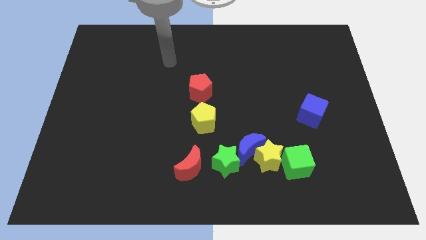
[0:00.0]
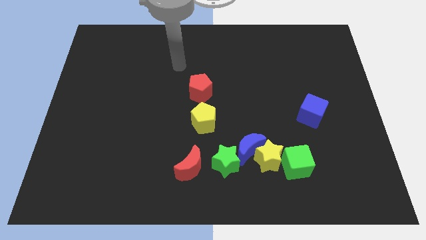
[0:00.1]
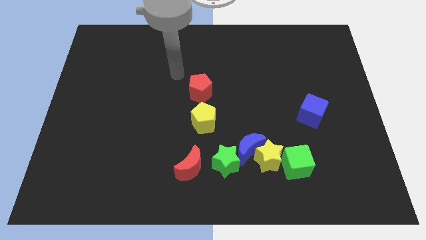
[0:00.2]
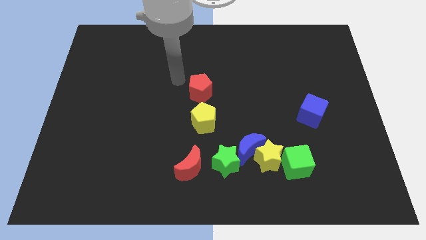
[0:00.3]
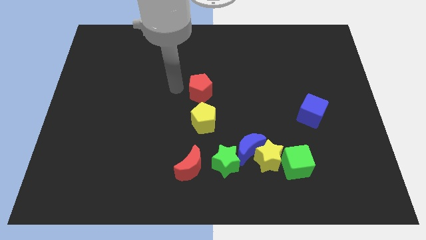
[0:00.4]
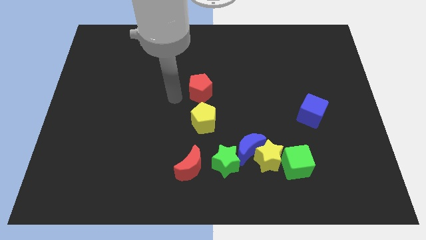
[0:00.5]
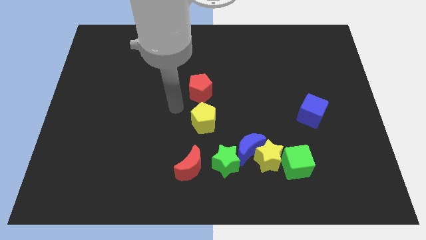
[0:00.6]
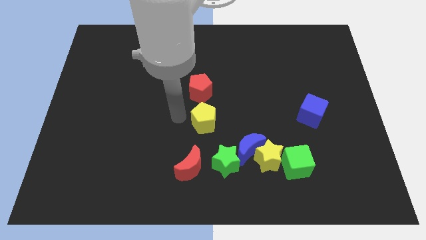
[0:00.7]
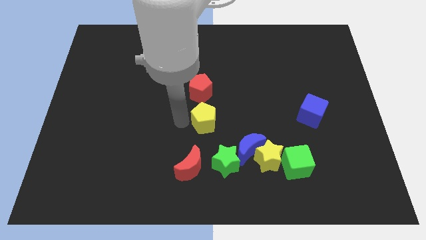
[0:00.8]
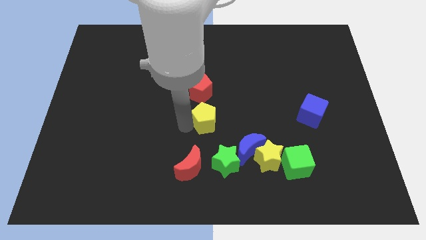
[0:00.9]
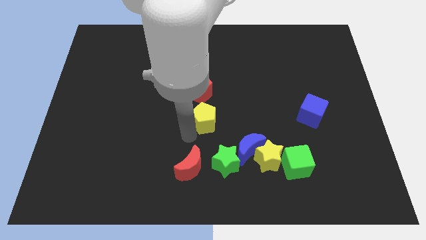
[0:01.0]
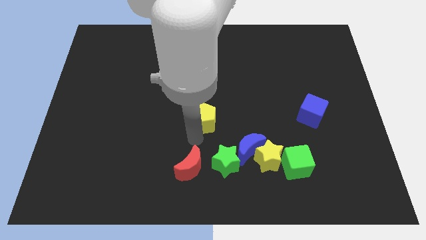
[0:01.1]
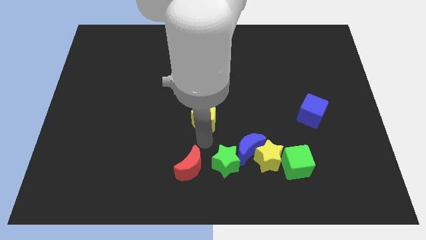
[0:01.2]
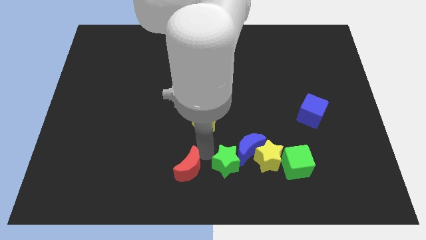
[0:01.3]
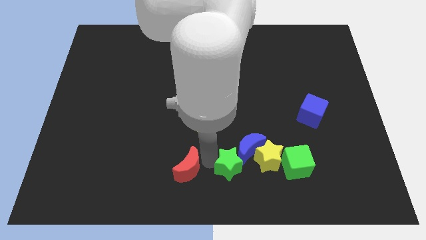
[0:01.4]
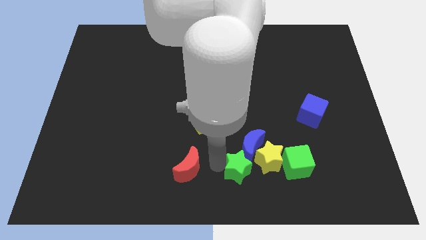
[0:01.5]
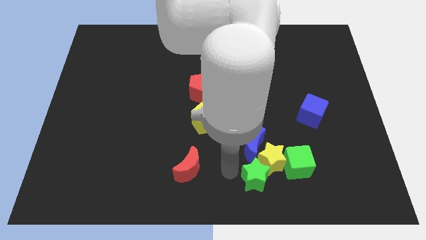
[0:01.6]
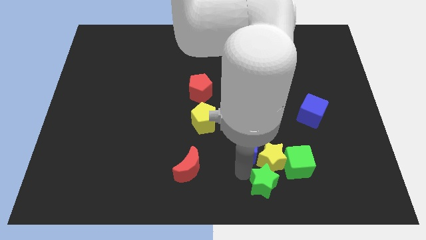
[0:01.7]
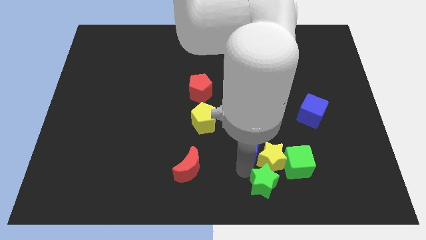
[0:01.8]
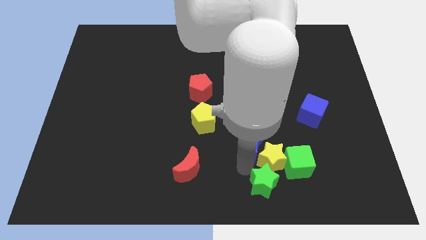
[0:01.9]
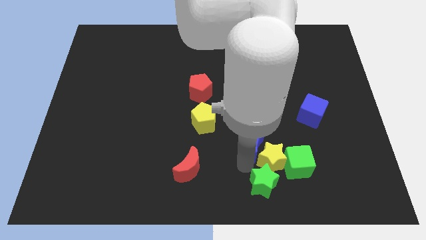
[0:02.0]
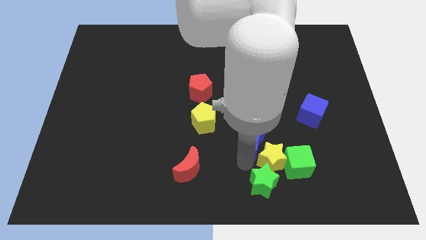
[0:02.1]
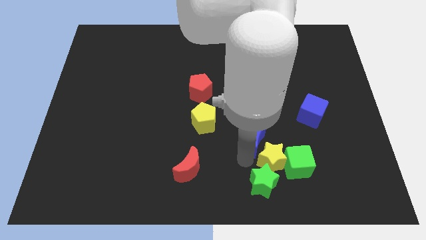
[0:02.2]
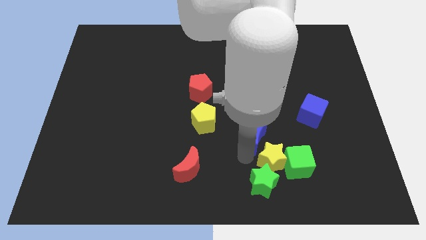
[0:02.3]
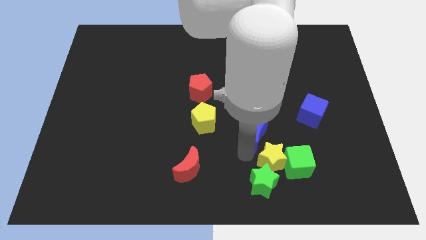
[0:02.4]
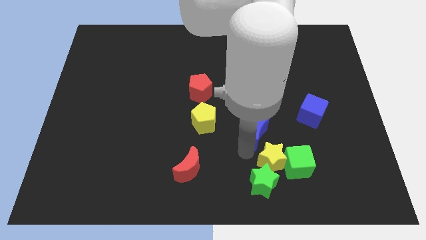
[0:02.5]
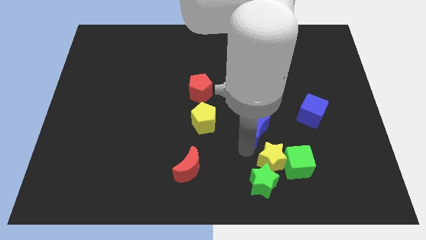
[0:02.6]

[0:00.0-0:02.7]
pull the blue moon apart from the yellow star and green star

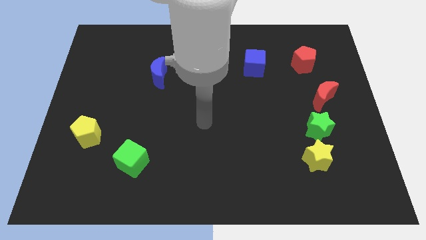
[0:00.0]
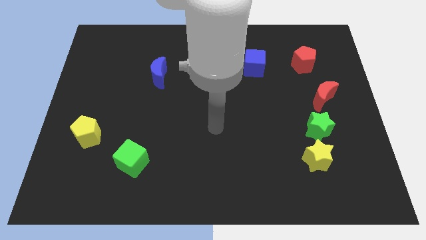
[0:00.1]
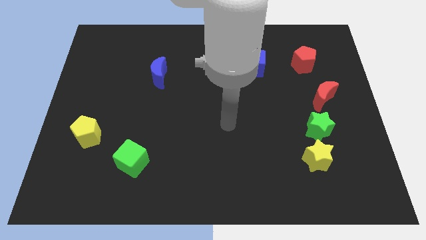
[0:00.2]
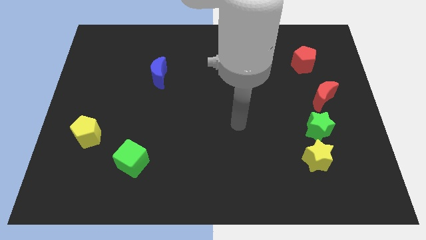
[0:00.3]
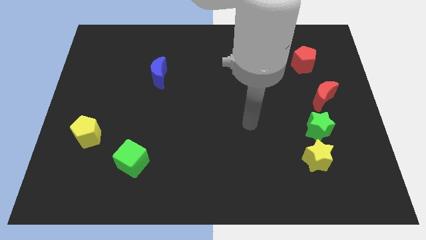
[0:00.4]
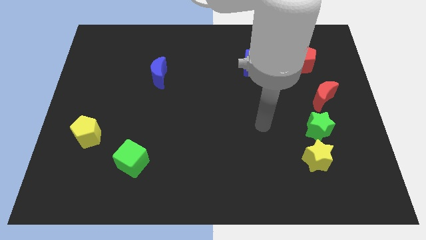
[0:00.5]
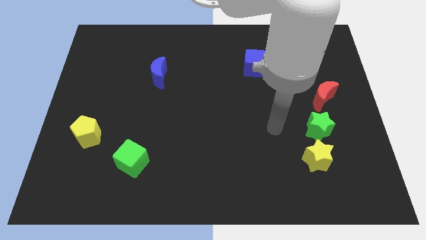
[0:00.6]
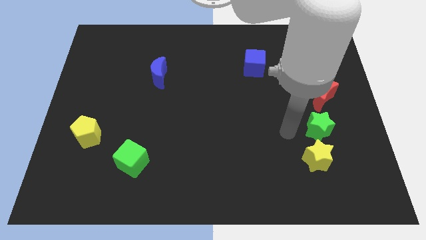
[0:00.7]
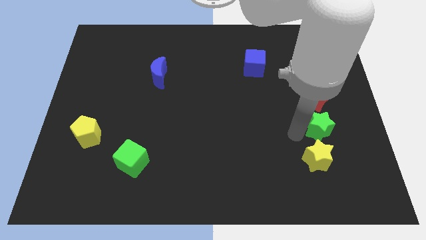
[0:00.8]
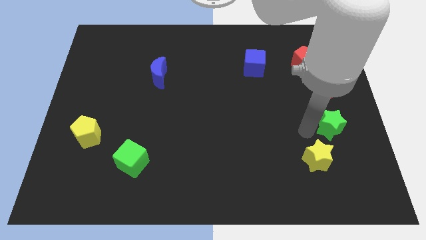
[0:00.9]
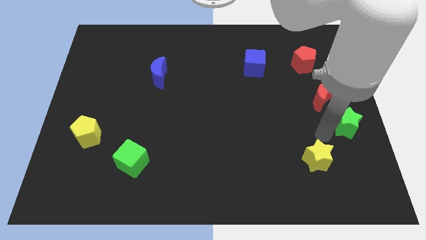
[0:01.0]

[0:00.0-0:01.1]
pull the yellow star apart from the green star

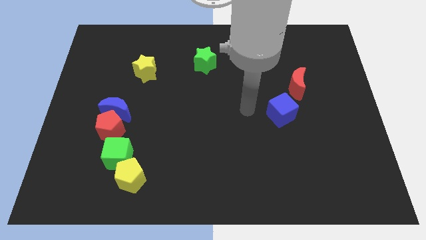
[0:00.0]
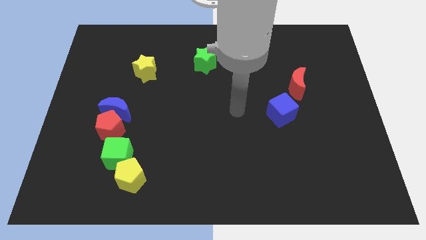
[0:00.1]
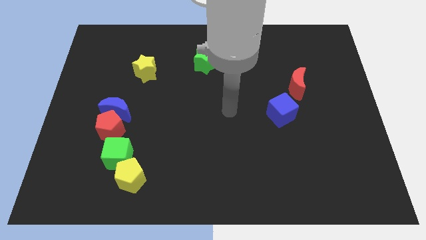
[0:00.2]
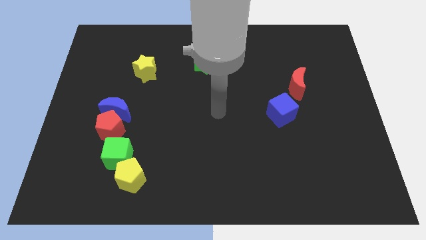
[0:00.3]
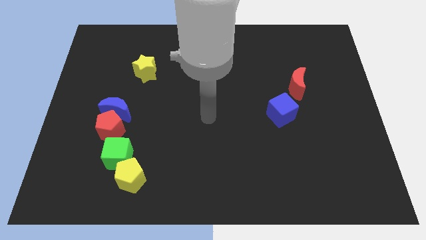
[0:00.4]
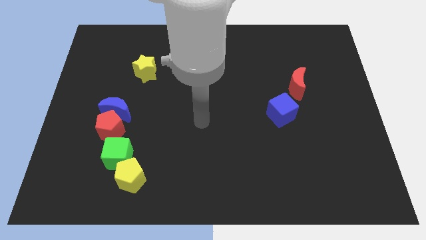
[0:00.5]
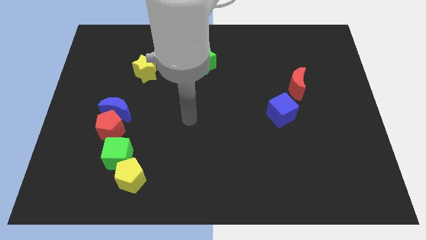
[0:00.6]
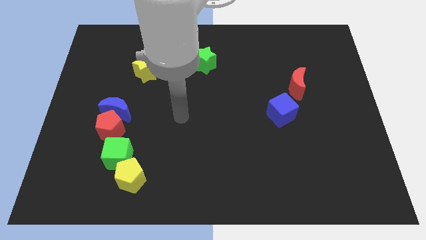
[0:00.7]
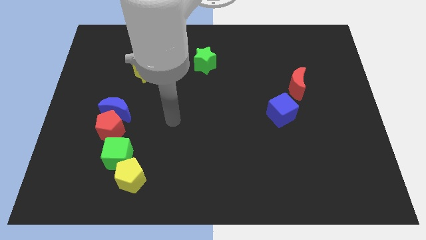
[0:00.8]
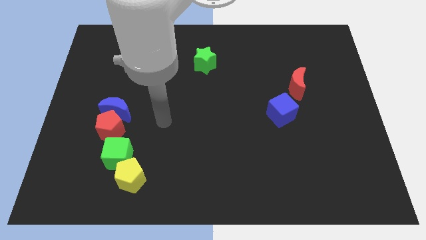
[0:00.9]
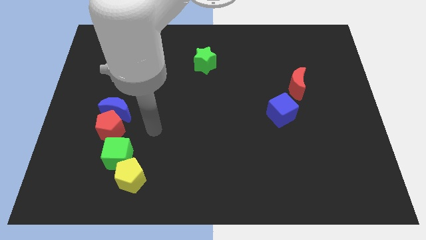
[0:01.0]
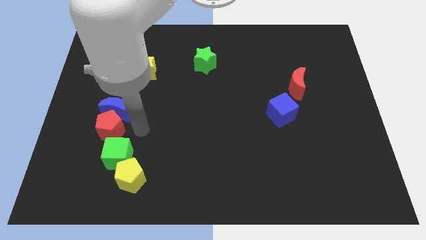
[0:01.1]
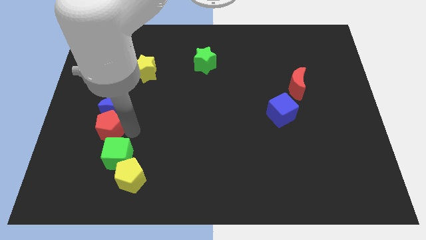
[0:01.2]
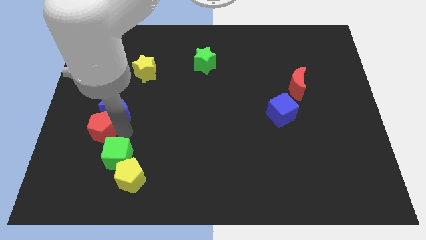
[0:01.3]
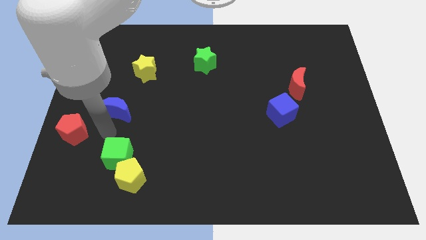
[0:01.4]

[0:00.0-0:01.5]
move the blue moon away from the red pentagon

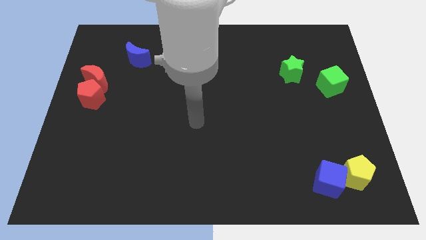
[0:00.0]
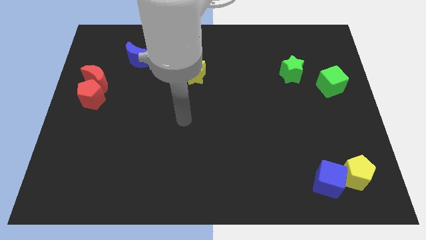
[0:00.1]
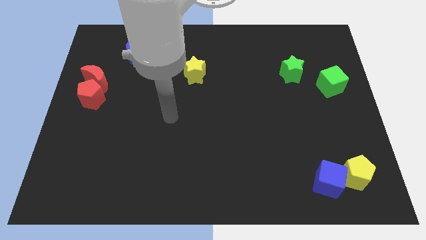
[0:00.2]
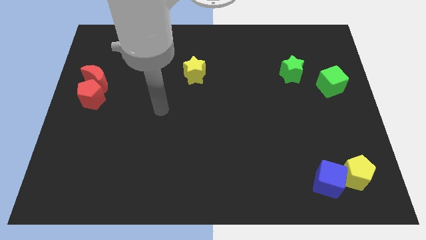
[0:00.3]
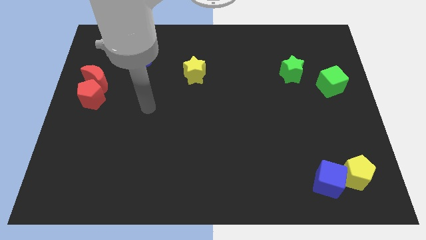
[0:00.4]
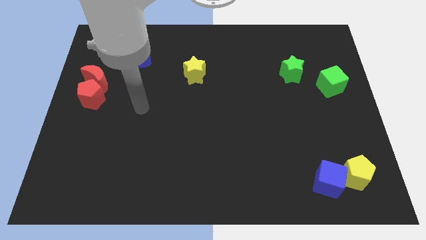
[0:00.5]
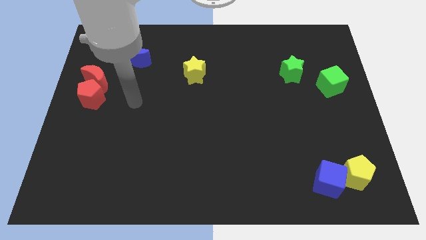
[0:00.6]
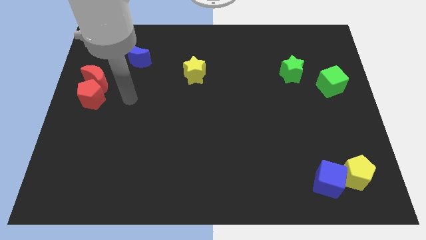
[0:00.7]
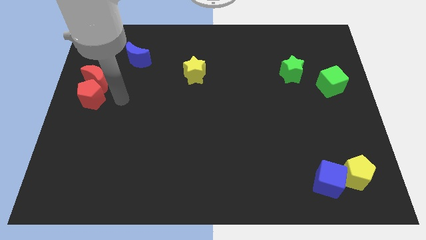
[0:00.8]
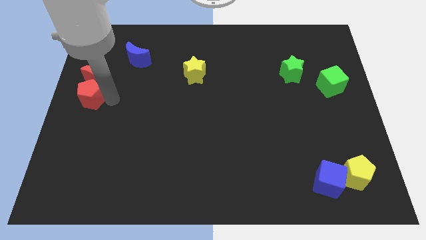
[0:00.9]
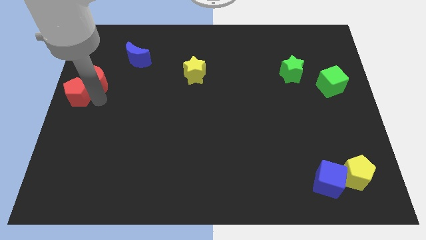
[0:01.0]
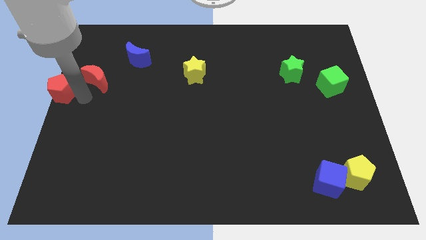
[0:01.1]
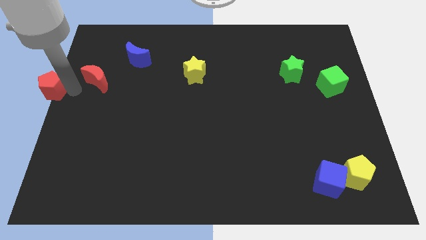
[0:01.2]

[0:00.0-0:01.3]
move the red moon away from the red pentagon

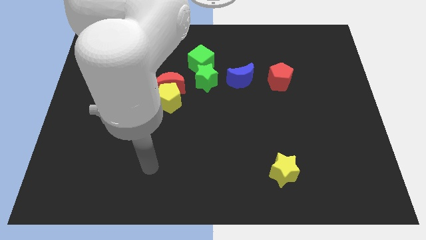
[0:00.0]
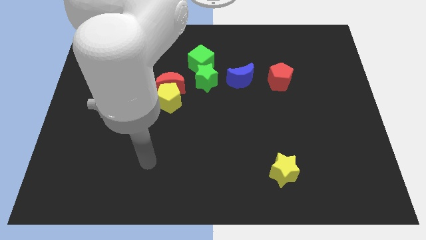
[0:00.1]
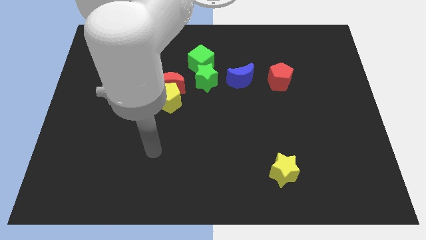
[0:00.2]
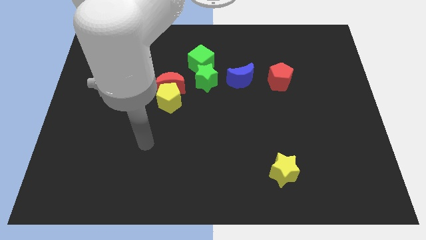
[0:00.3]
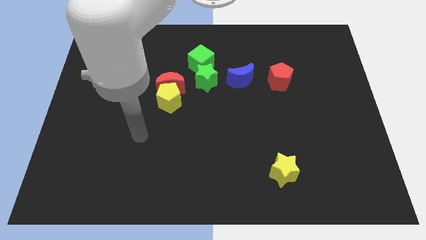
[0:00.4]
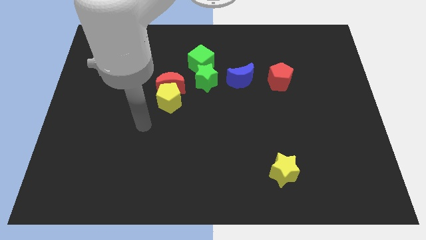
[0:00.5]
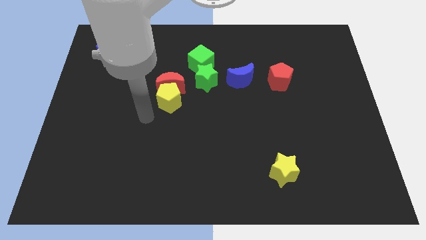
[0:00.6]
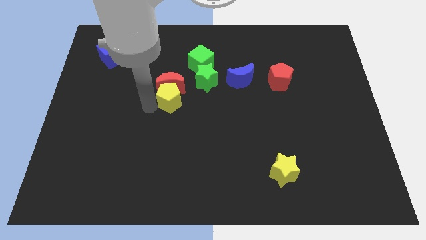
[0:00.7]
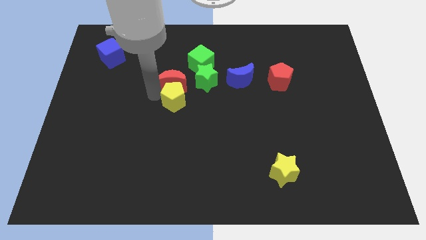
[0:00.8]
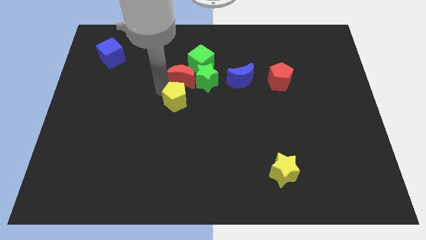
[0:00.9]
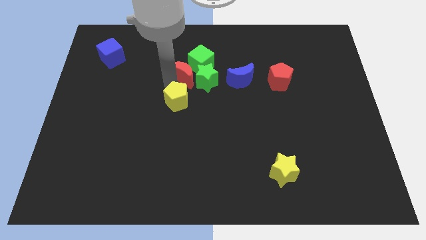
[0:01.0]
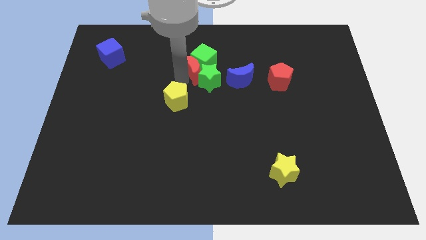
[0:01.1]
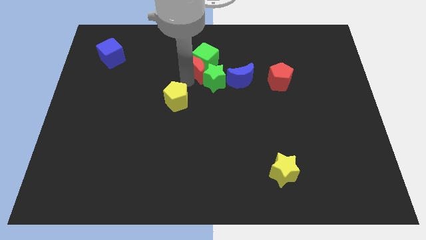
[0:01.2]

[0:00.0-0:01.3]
pull the yellow pentagon apart from the red moon

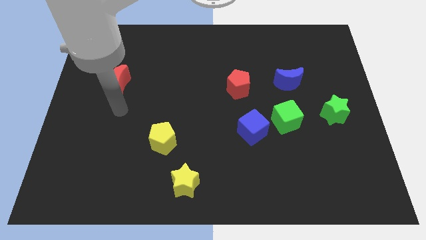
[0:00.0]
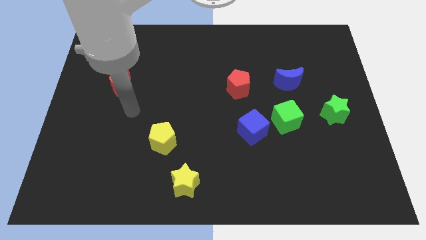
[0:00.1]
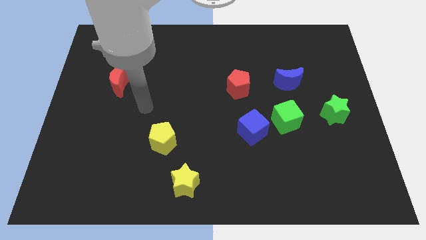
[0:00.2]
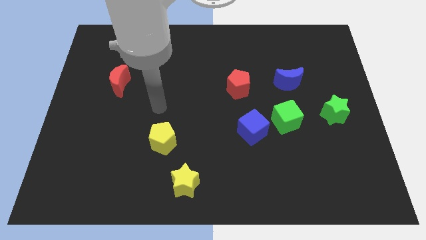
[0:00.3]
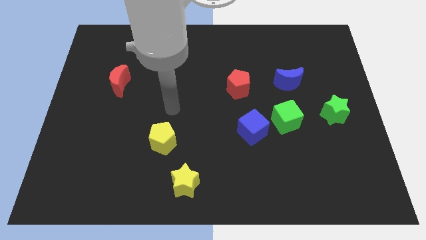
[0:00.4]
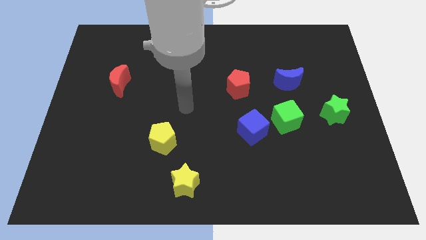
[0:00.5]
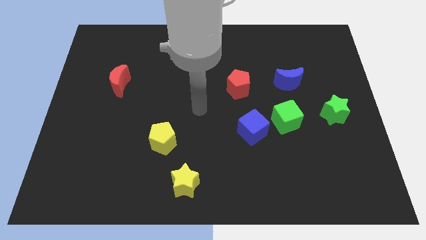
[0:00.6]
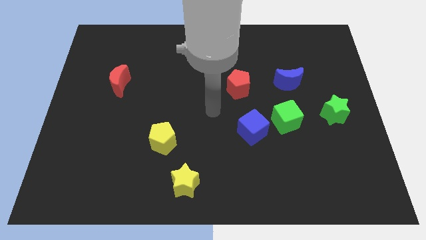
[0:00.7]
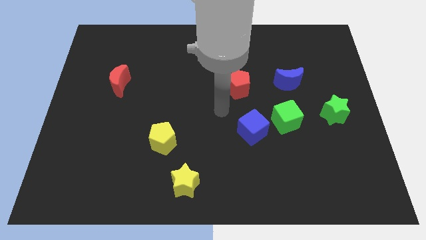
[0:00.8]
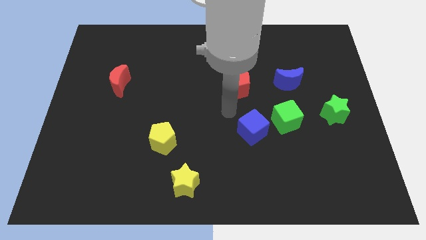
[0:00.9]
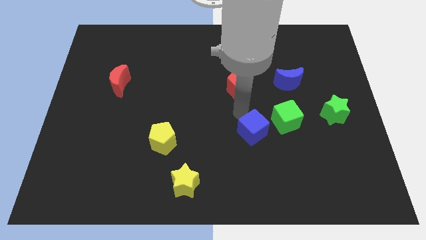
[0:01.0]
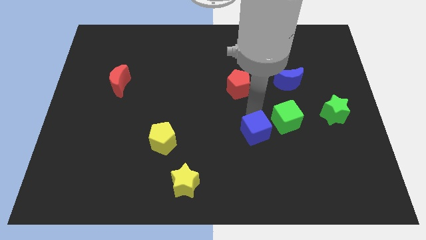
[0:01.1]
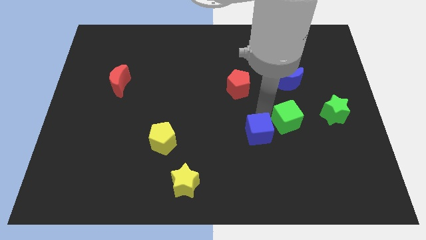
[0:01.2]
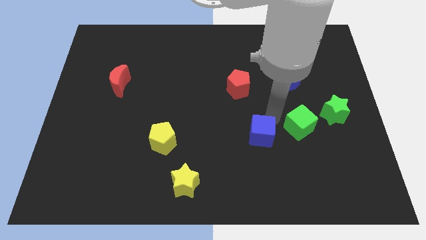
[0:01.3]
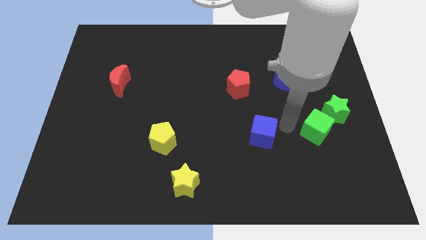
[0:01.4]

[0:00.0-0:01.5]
move the blue cube away from the green cube
